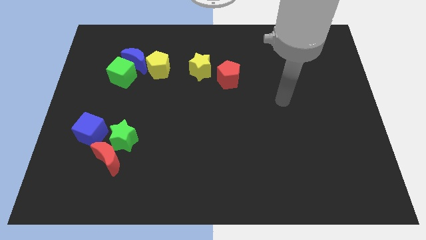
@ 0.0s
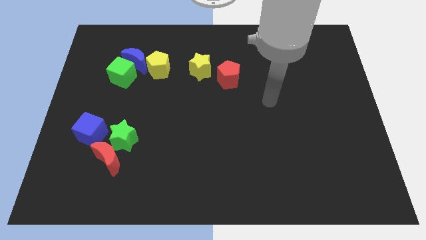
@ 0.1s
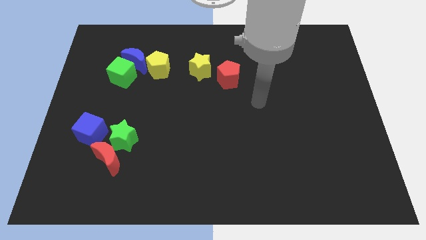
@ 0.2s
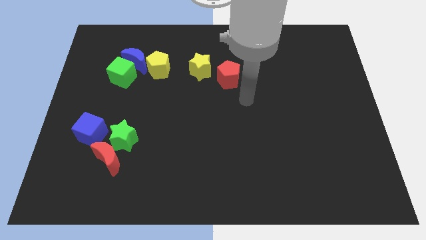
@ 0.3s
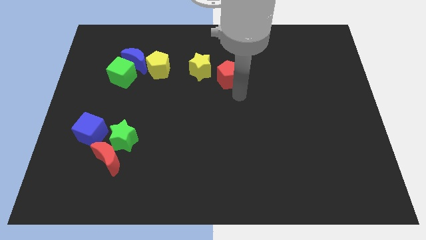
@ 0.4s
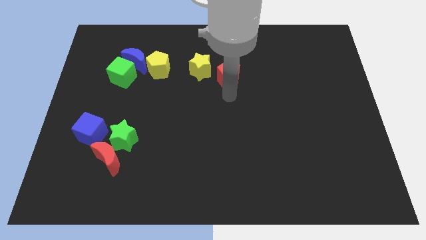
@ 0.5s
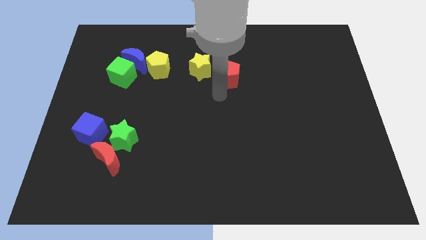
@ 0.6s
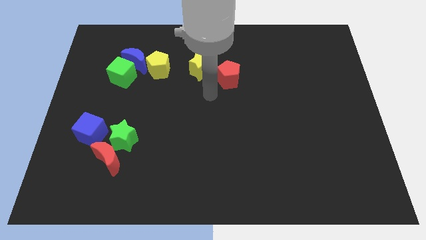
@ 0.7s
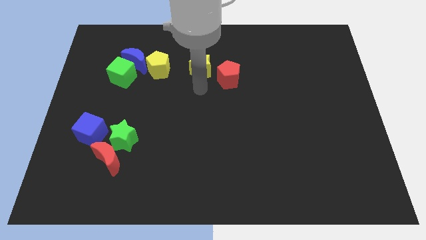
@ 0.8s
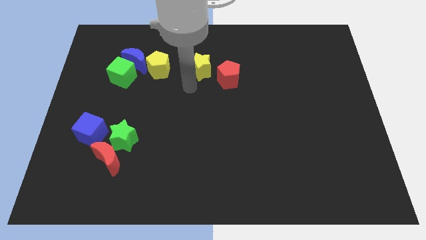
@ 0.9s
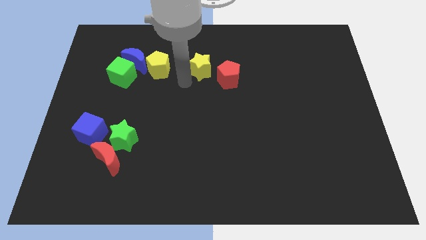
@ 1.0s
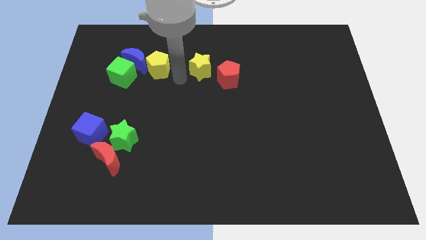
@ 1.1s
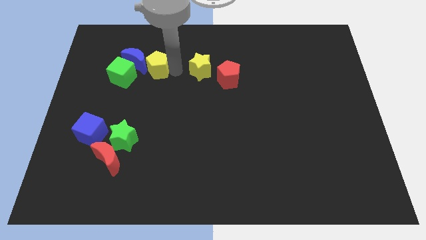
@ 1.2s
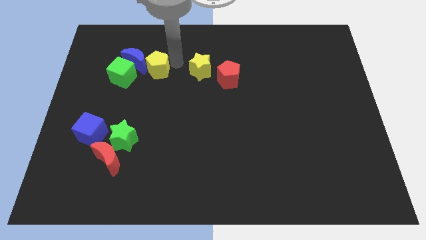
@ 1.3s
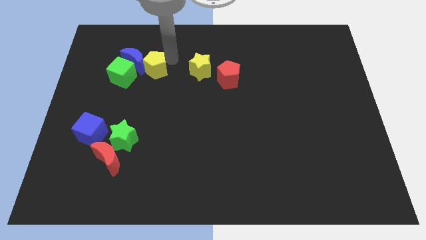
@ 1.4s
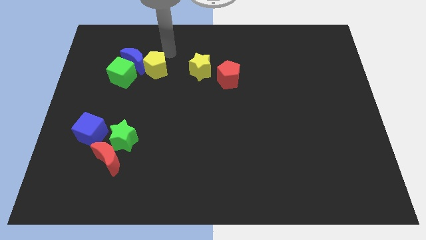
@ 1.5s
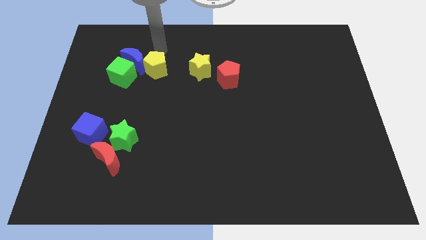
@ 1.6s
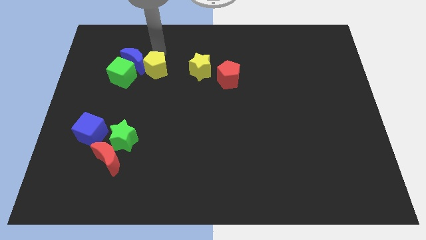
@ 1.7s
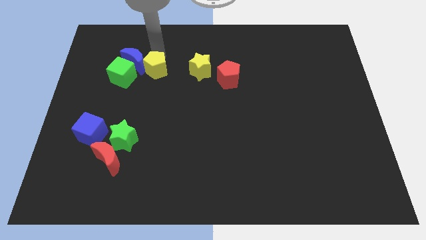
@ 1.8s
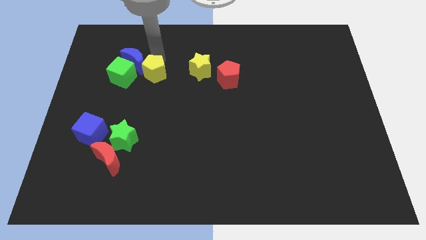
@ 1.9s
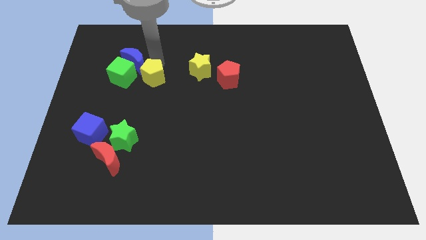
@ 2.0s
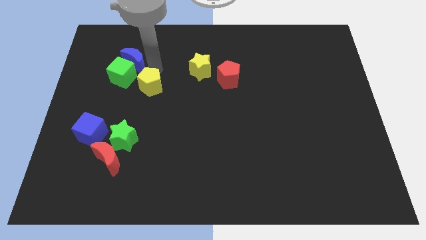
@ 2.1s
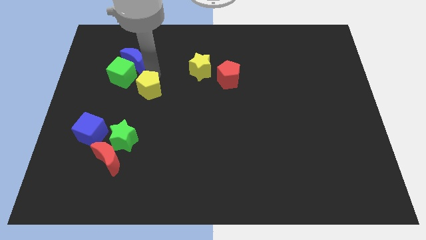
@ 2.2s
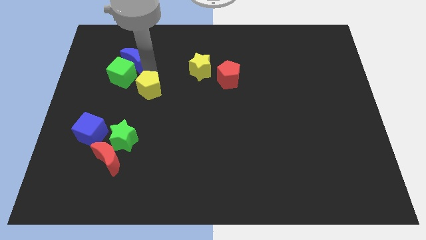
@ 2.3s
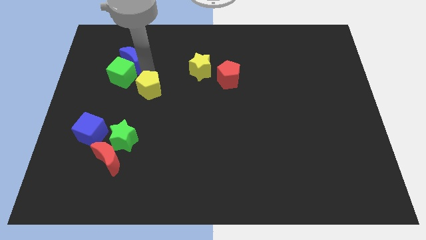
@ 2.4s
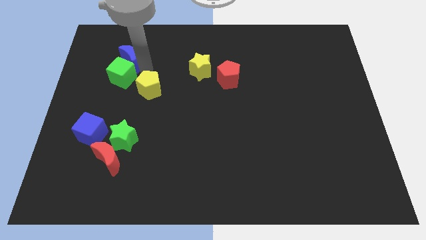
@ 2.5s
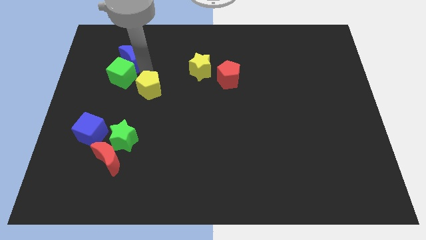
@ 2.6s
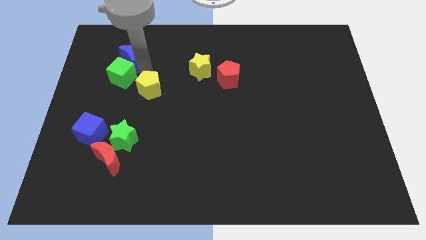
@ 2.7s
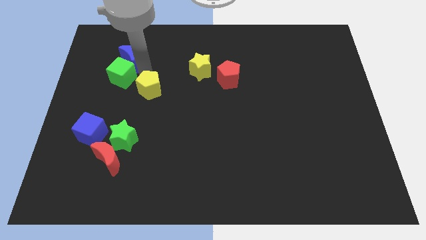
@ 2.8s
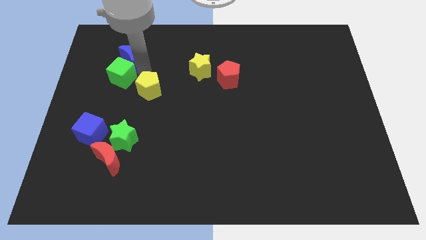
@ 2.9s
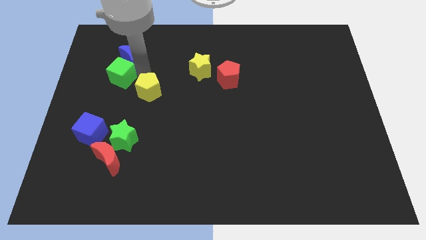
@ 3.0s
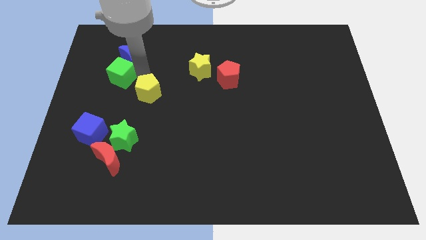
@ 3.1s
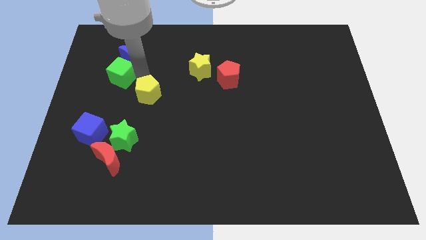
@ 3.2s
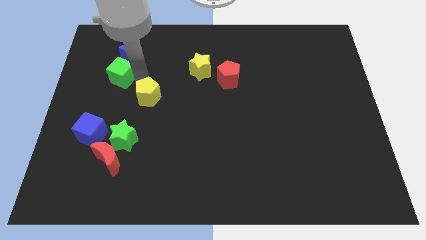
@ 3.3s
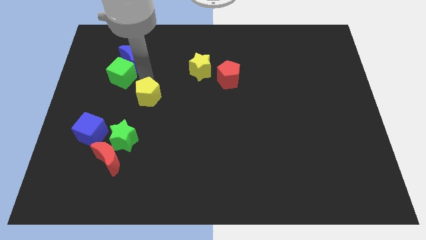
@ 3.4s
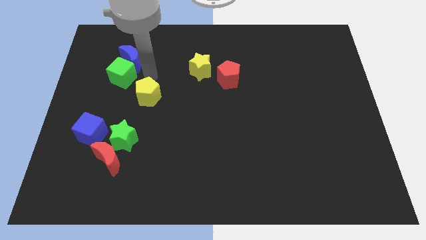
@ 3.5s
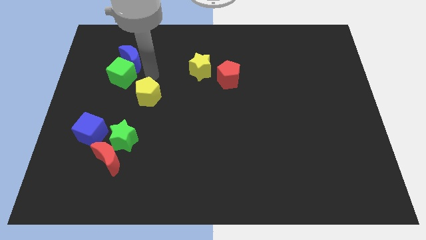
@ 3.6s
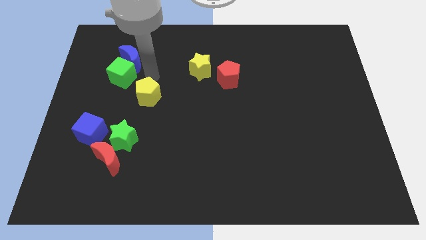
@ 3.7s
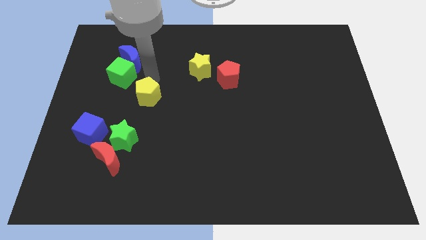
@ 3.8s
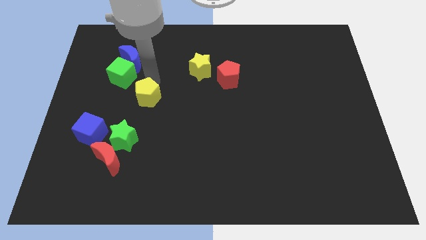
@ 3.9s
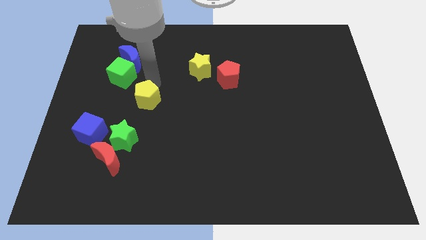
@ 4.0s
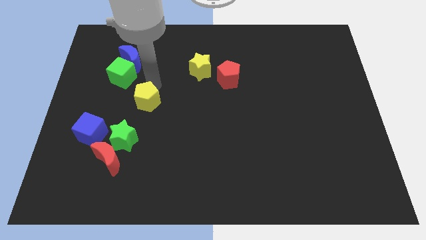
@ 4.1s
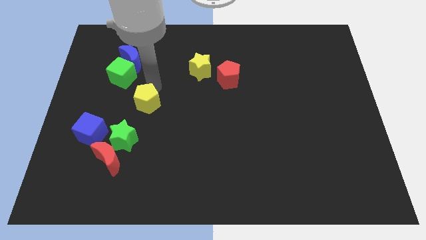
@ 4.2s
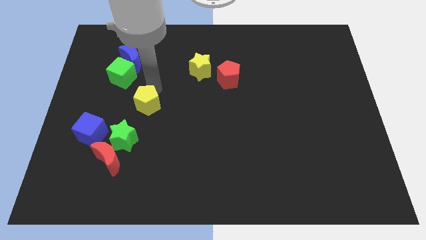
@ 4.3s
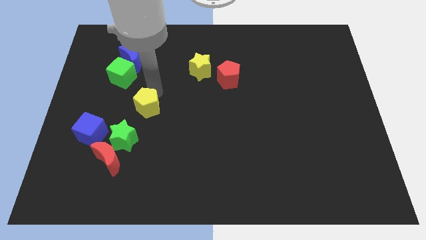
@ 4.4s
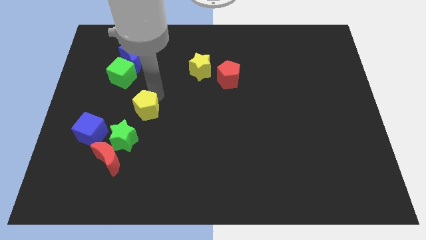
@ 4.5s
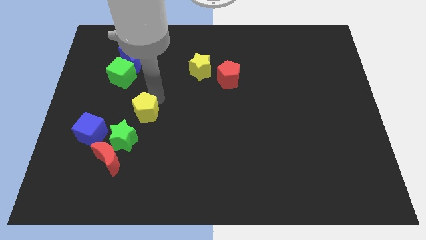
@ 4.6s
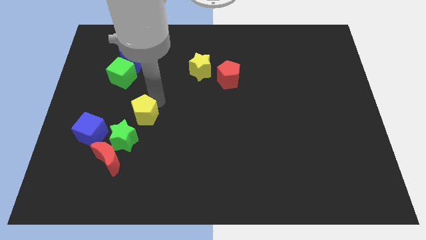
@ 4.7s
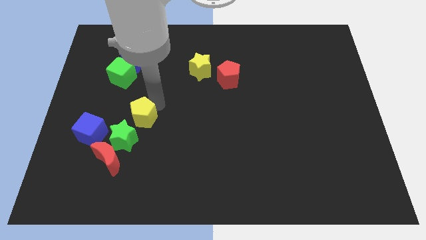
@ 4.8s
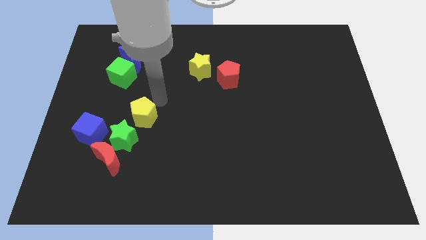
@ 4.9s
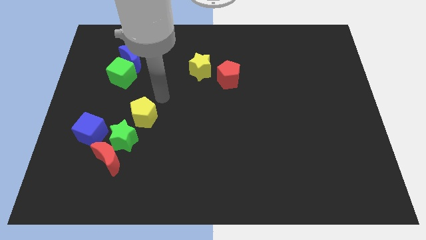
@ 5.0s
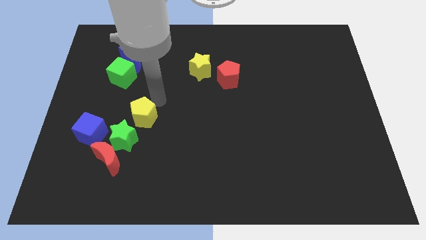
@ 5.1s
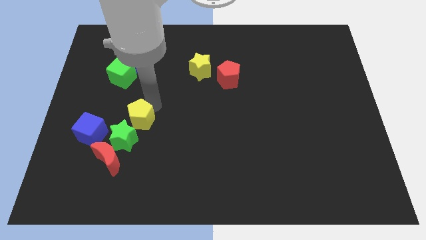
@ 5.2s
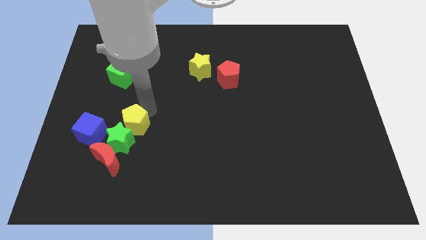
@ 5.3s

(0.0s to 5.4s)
put the yellow pentagon to the green star

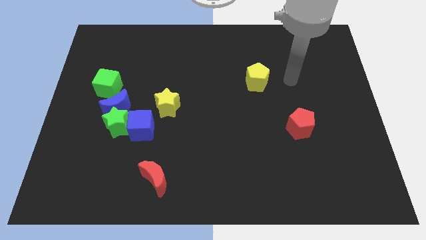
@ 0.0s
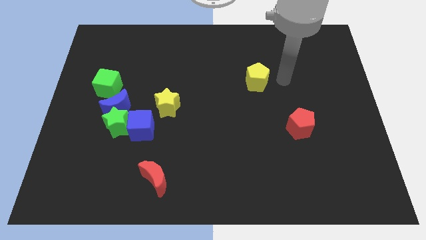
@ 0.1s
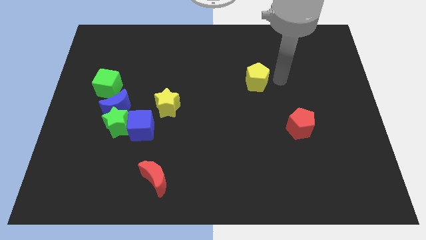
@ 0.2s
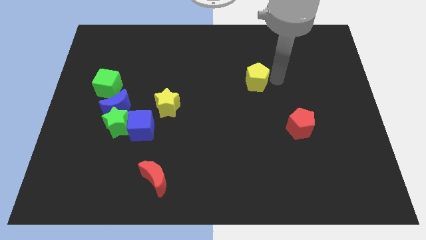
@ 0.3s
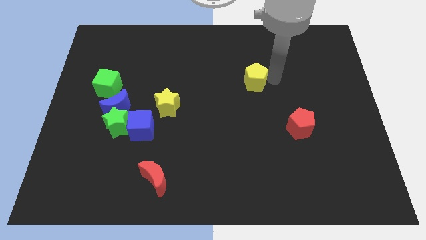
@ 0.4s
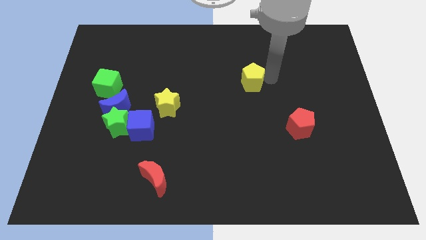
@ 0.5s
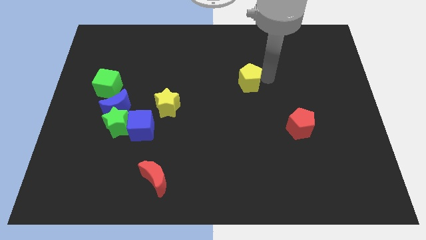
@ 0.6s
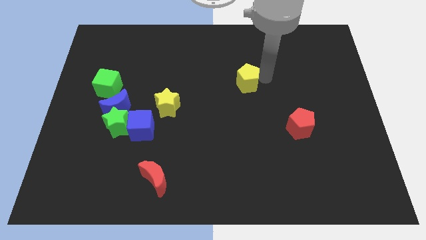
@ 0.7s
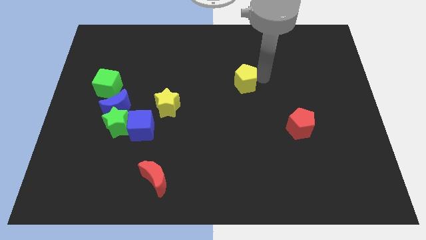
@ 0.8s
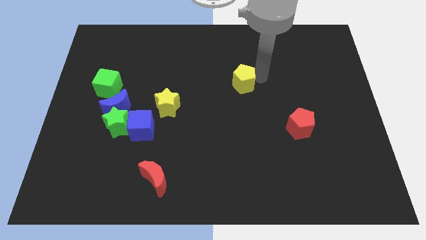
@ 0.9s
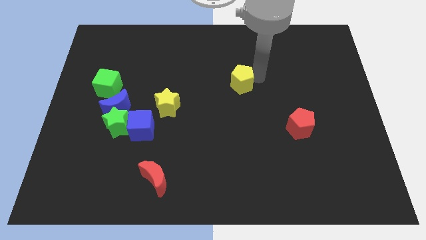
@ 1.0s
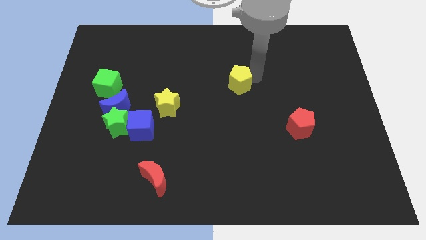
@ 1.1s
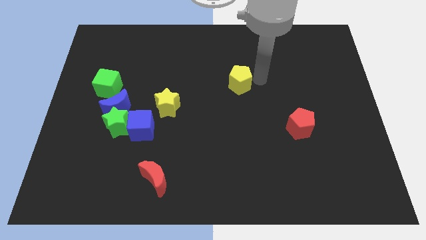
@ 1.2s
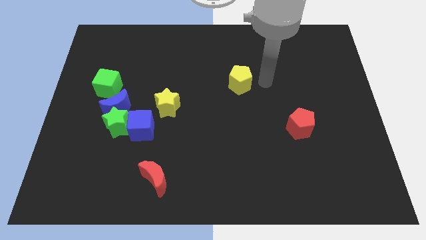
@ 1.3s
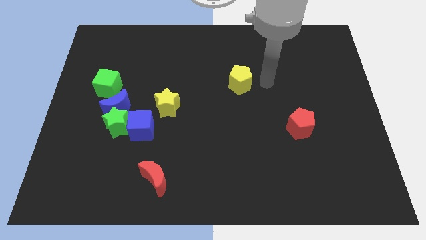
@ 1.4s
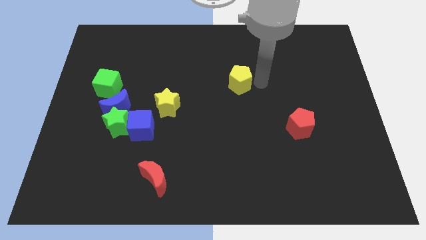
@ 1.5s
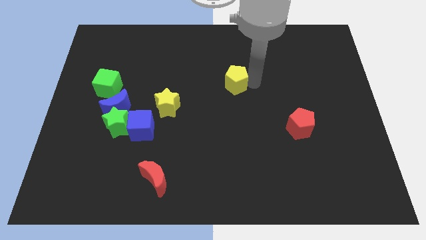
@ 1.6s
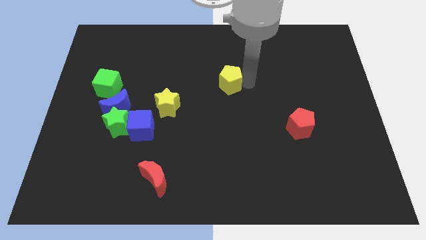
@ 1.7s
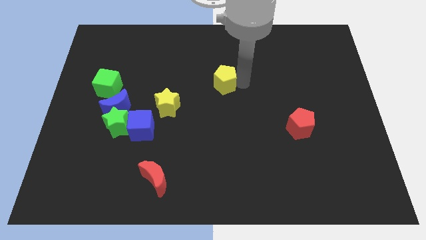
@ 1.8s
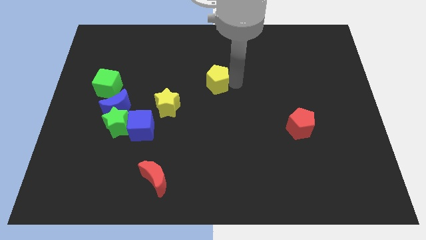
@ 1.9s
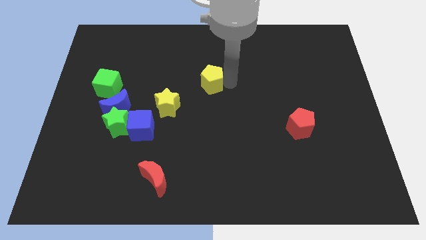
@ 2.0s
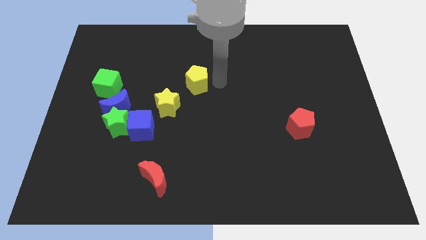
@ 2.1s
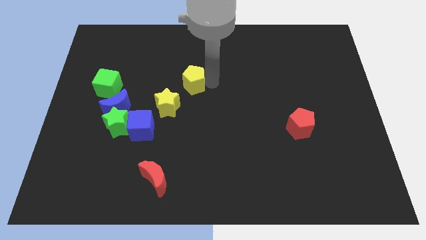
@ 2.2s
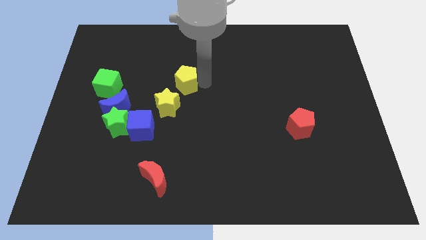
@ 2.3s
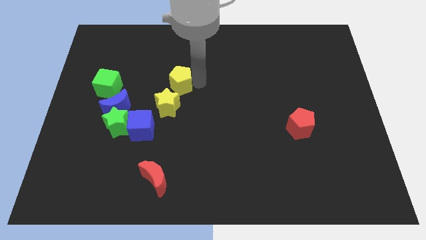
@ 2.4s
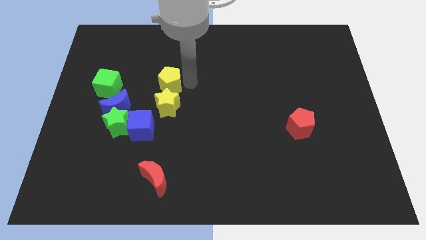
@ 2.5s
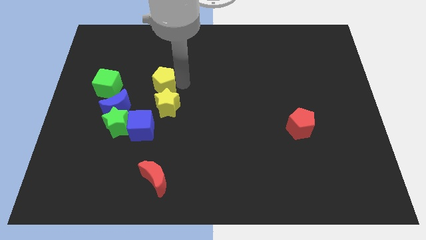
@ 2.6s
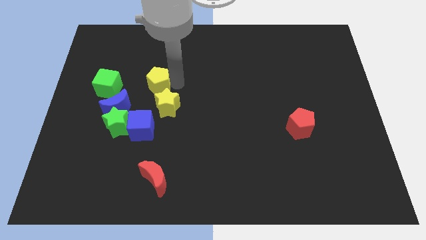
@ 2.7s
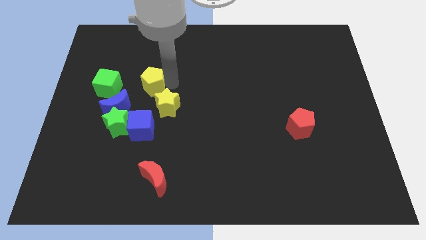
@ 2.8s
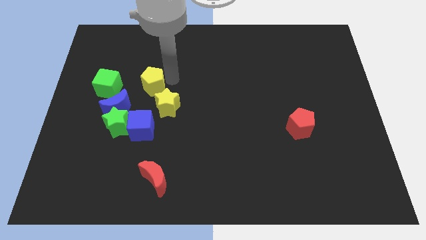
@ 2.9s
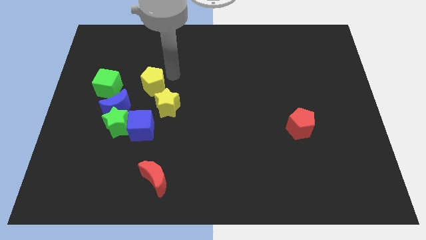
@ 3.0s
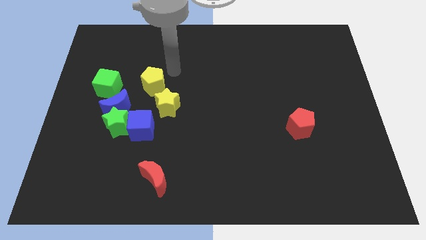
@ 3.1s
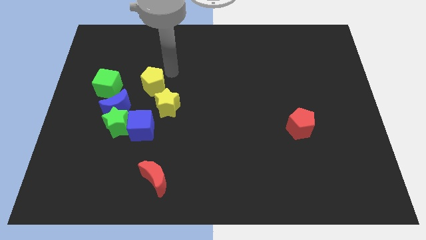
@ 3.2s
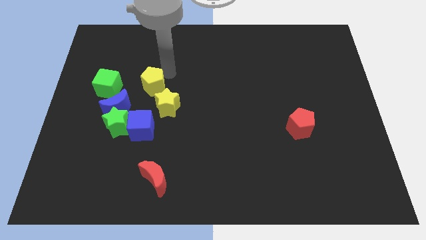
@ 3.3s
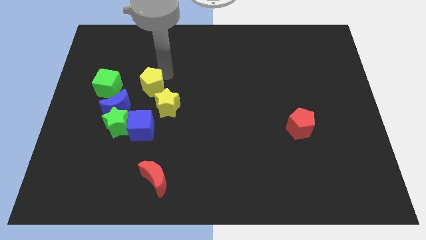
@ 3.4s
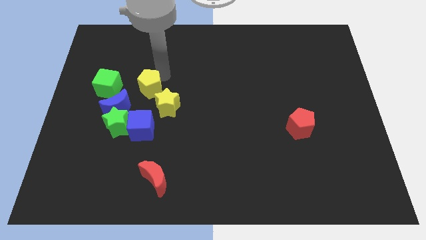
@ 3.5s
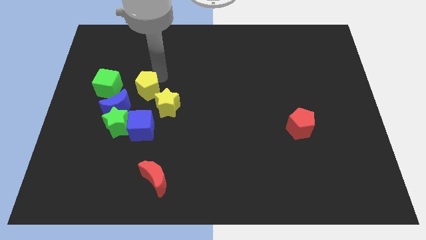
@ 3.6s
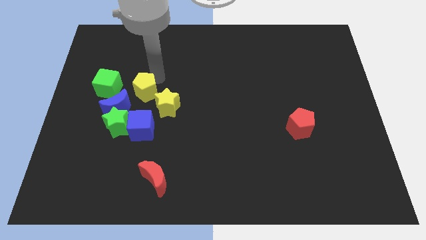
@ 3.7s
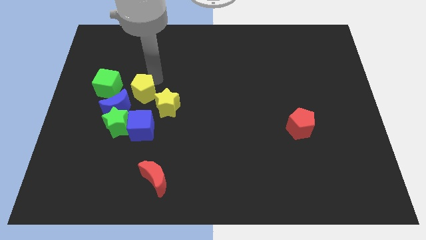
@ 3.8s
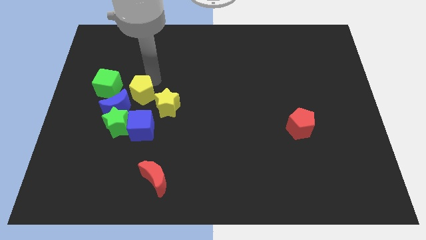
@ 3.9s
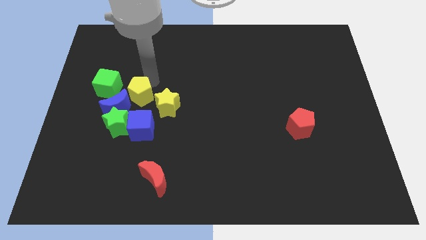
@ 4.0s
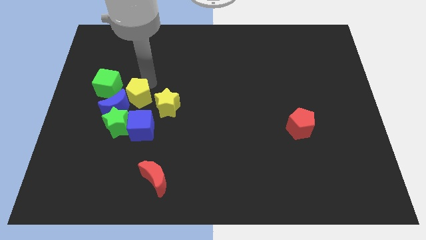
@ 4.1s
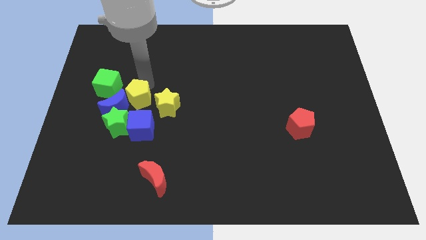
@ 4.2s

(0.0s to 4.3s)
move the yellow pentagon close to the blue moon
